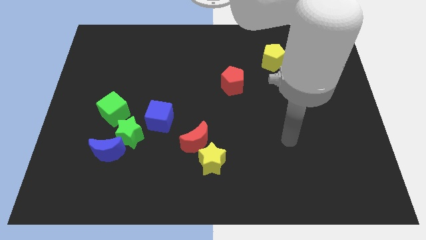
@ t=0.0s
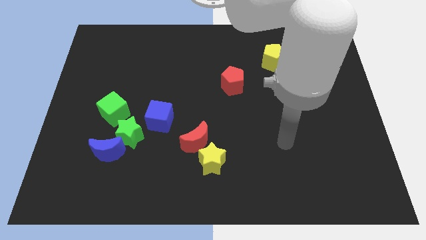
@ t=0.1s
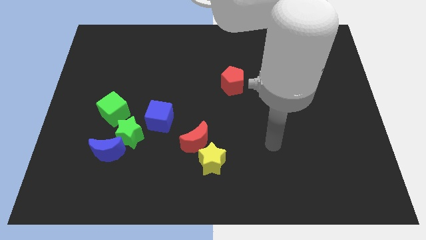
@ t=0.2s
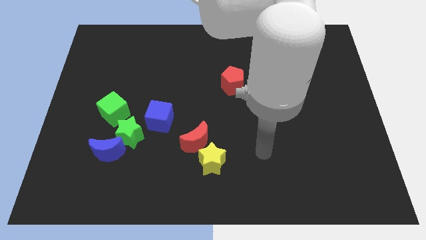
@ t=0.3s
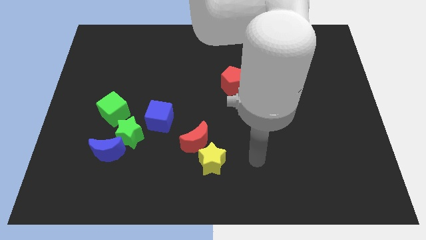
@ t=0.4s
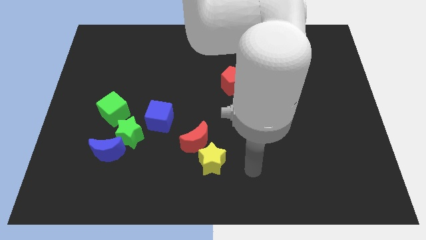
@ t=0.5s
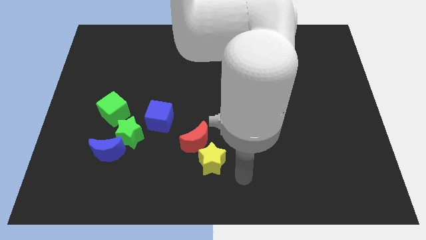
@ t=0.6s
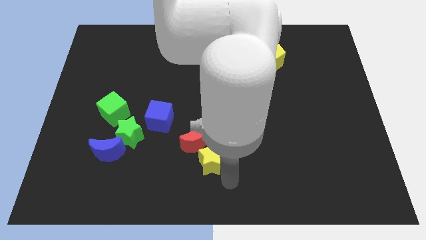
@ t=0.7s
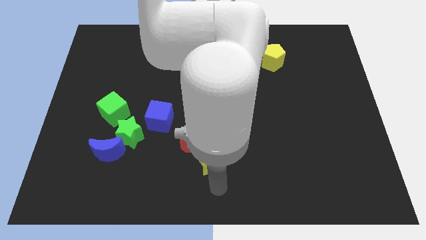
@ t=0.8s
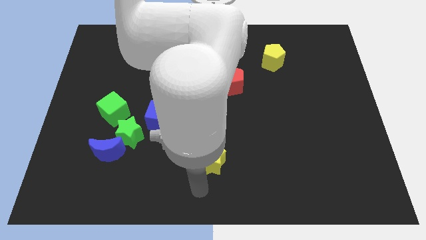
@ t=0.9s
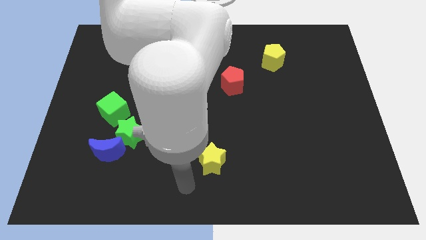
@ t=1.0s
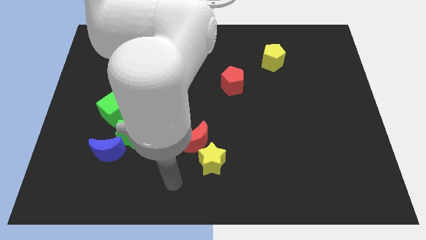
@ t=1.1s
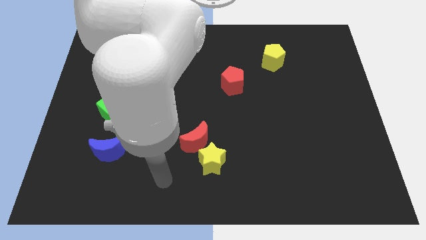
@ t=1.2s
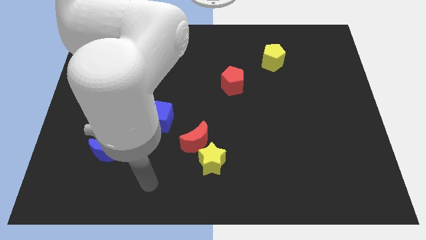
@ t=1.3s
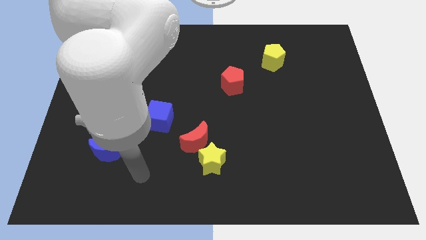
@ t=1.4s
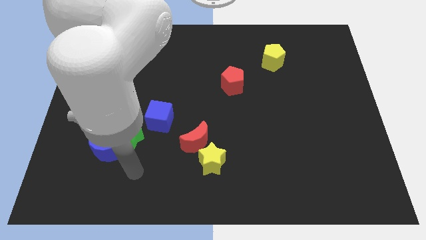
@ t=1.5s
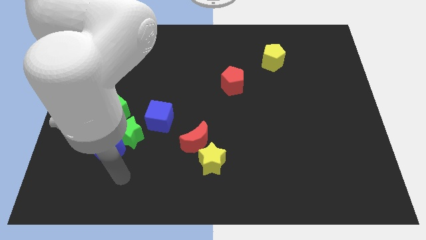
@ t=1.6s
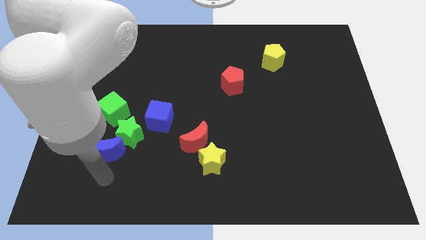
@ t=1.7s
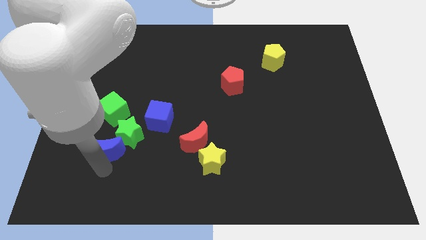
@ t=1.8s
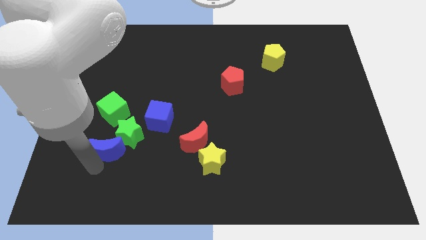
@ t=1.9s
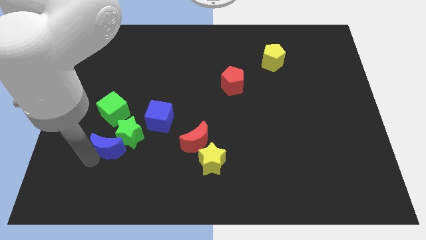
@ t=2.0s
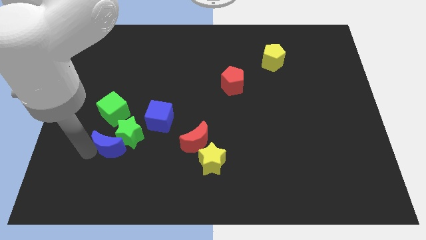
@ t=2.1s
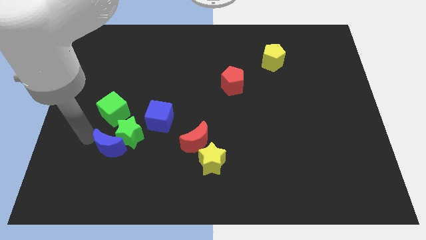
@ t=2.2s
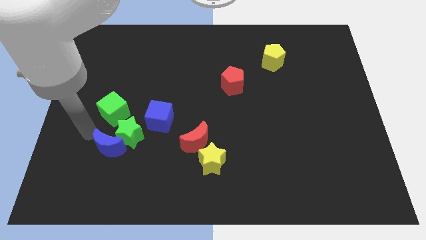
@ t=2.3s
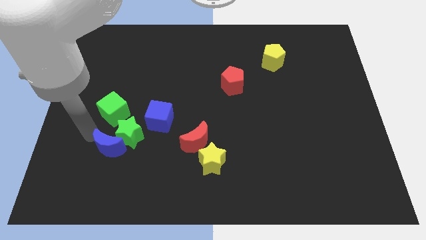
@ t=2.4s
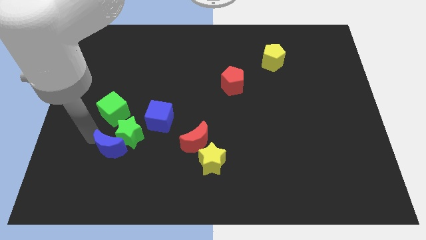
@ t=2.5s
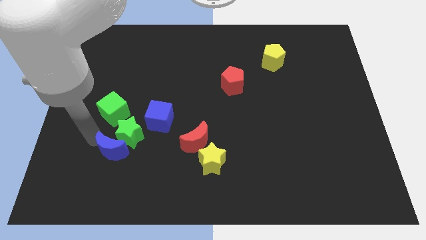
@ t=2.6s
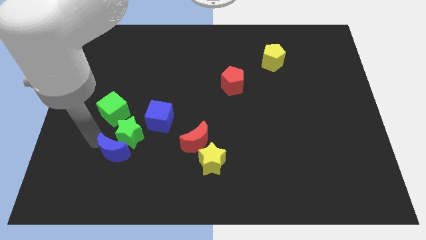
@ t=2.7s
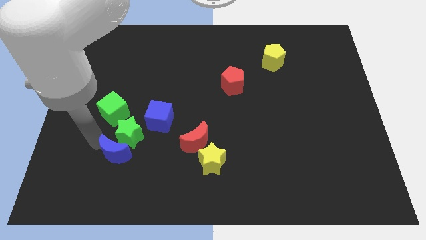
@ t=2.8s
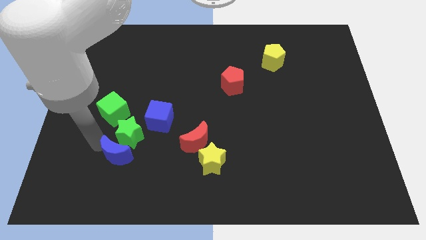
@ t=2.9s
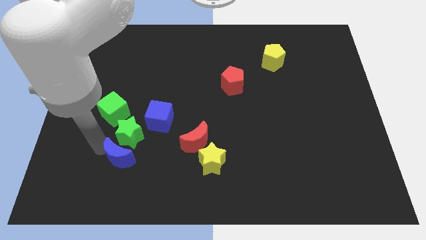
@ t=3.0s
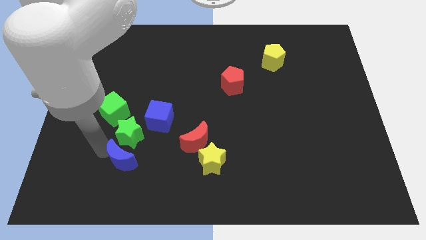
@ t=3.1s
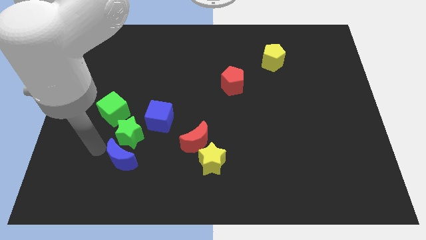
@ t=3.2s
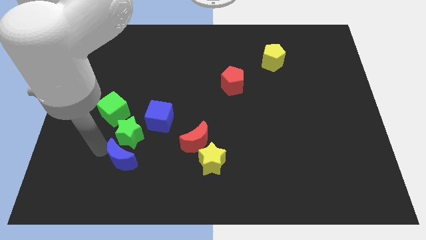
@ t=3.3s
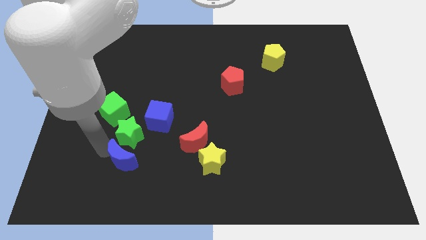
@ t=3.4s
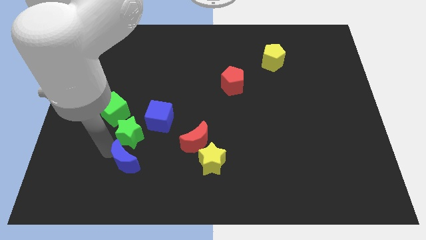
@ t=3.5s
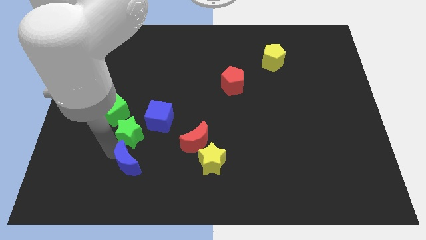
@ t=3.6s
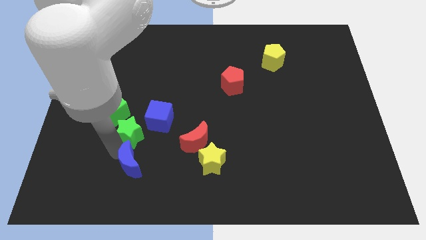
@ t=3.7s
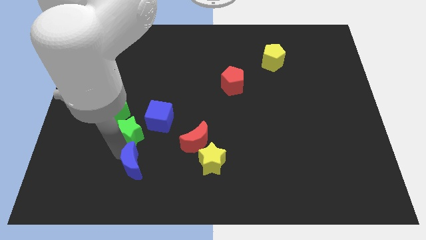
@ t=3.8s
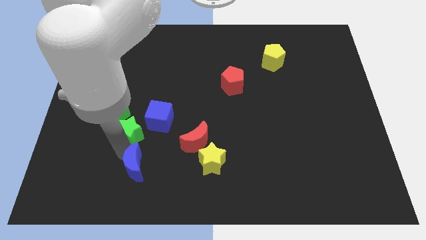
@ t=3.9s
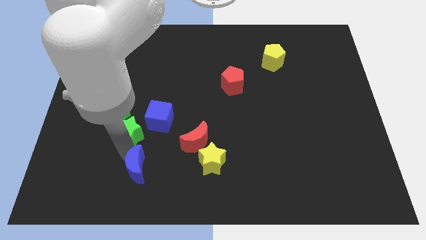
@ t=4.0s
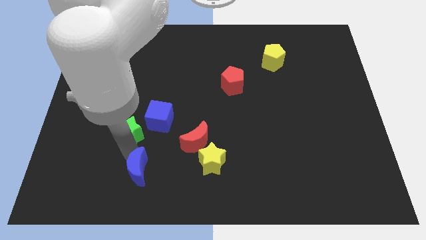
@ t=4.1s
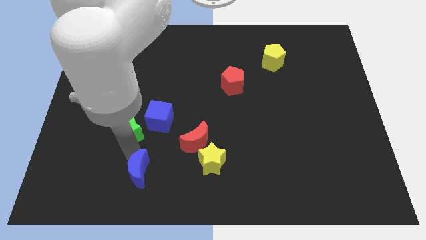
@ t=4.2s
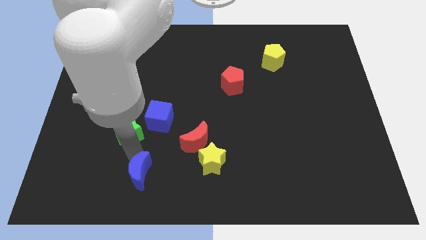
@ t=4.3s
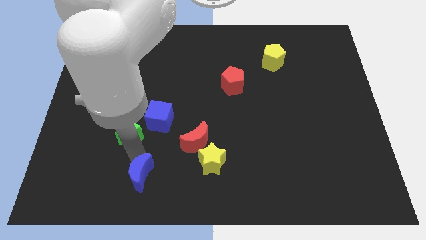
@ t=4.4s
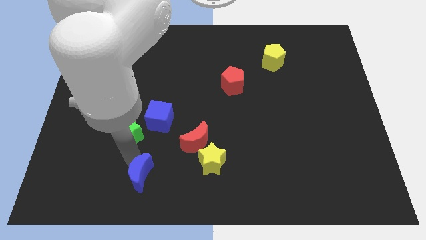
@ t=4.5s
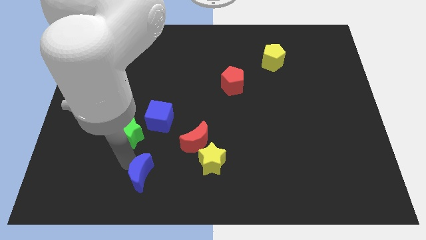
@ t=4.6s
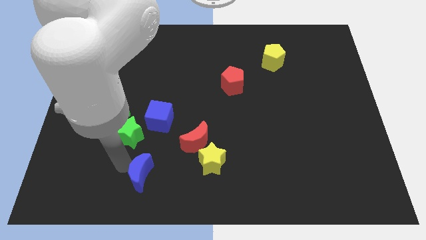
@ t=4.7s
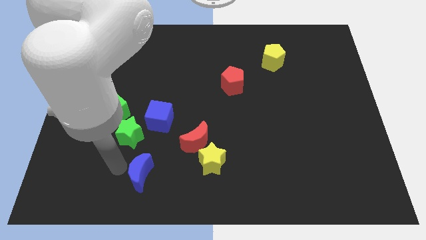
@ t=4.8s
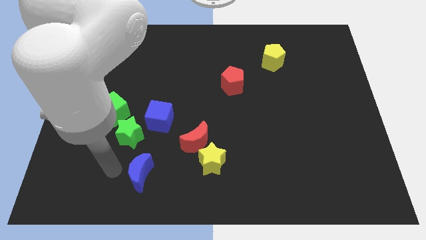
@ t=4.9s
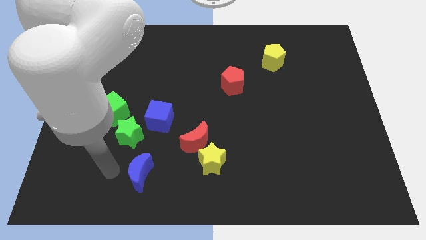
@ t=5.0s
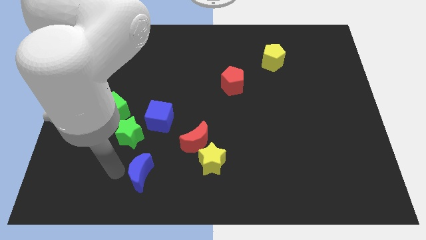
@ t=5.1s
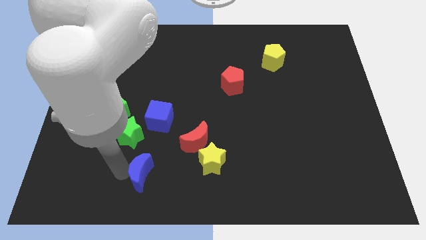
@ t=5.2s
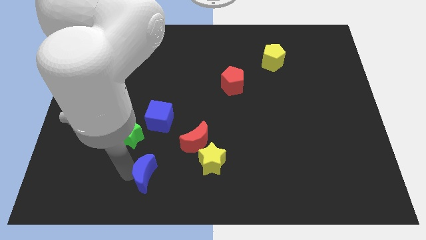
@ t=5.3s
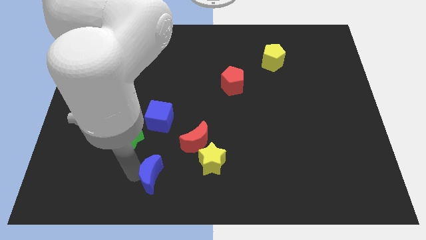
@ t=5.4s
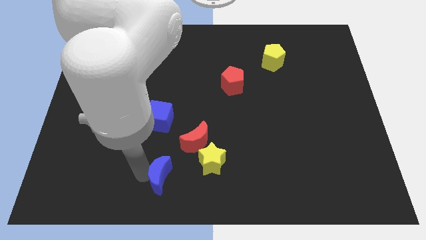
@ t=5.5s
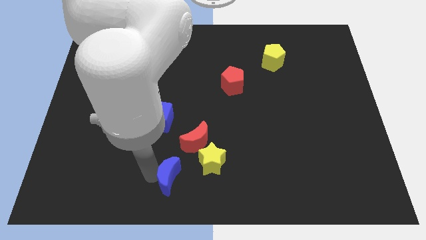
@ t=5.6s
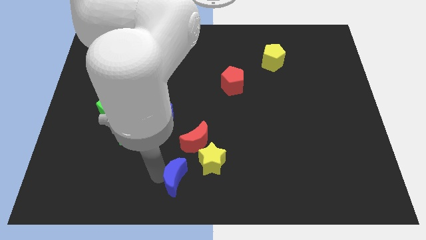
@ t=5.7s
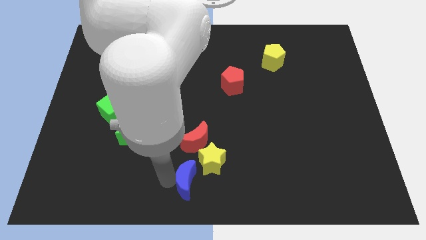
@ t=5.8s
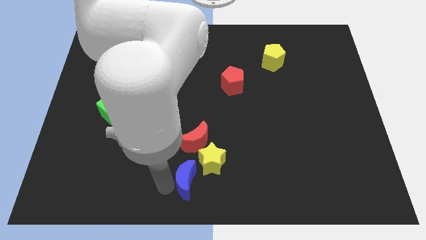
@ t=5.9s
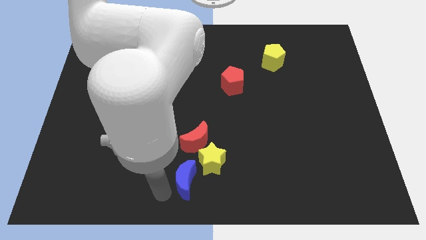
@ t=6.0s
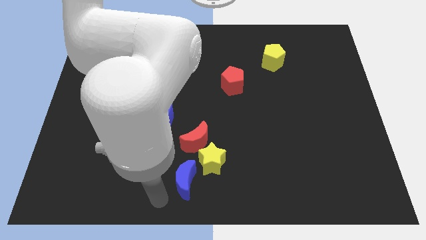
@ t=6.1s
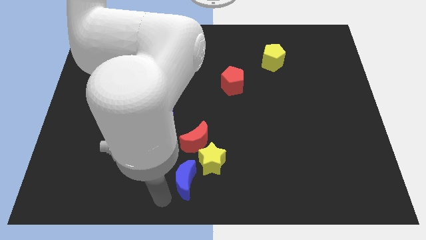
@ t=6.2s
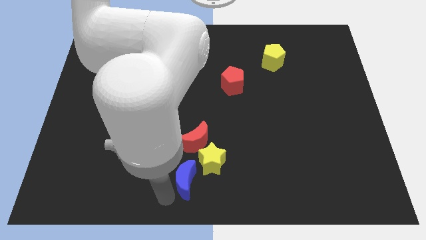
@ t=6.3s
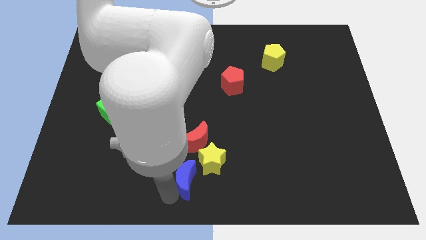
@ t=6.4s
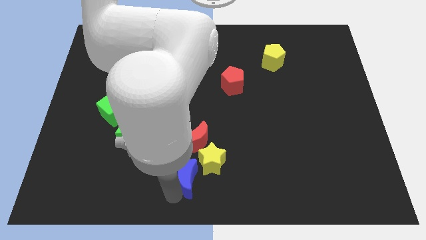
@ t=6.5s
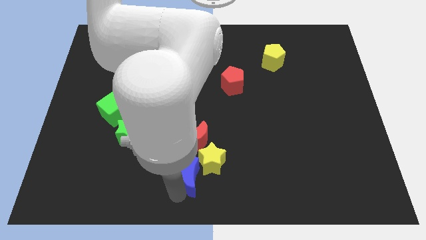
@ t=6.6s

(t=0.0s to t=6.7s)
slide the blue moon to the yellow star
